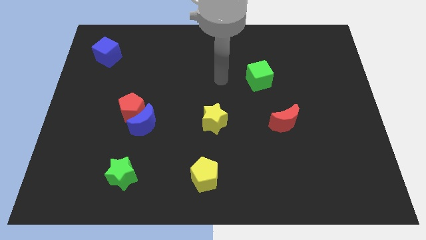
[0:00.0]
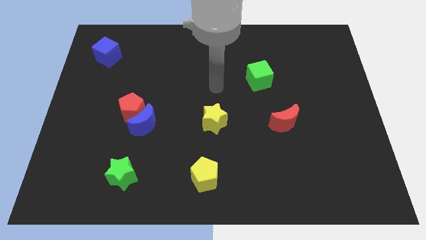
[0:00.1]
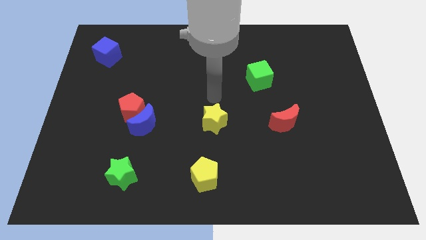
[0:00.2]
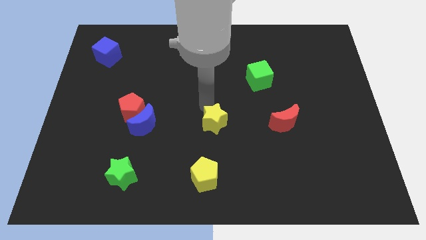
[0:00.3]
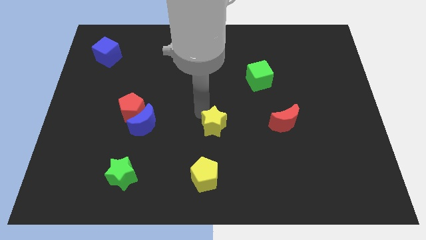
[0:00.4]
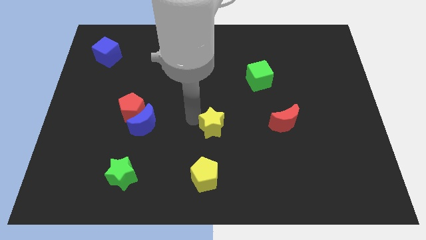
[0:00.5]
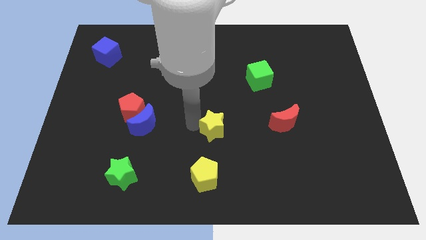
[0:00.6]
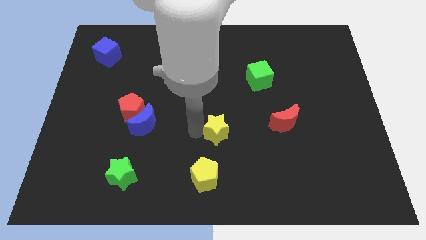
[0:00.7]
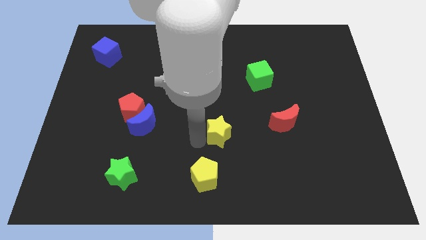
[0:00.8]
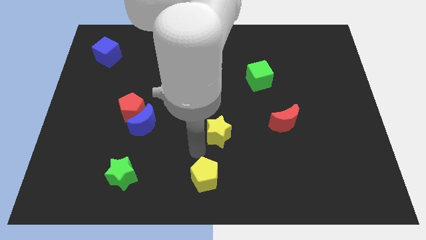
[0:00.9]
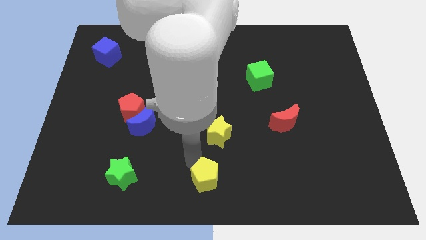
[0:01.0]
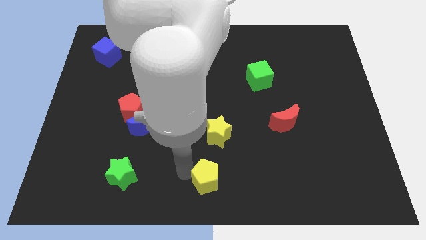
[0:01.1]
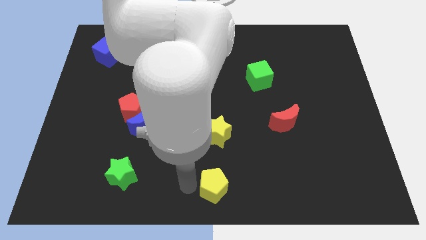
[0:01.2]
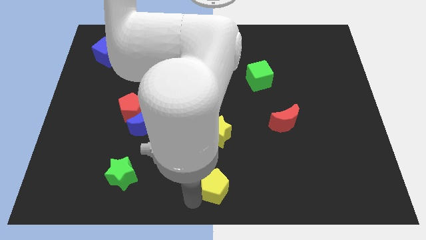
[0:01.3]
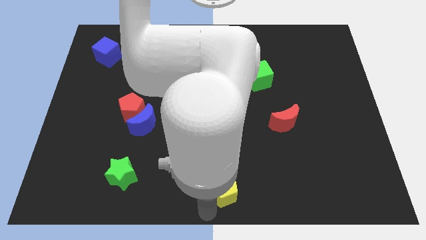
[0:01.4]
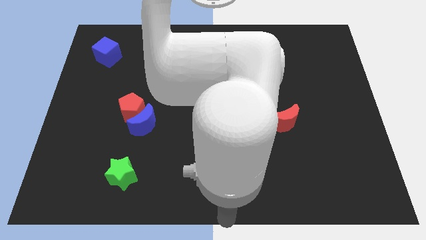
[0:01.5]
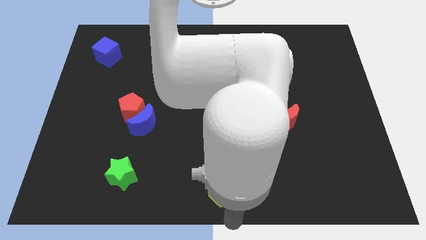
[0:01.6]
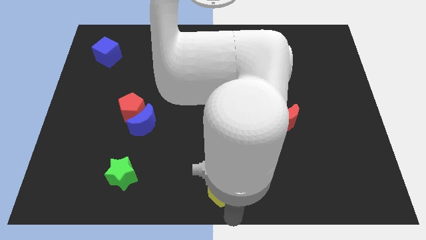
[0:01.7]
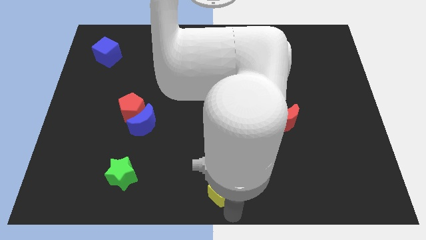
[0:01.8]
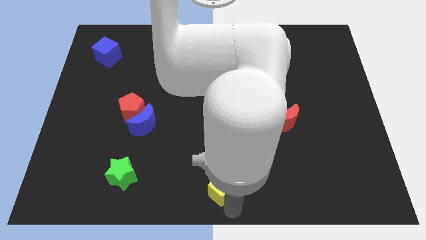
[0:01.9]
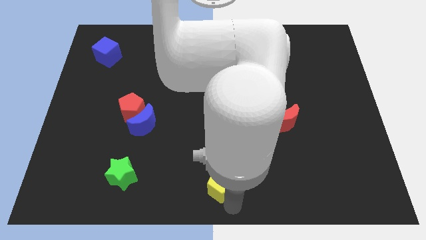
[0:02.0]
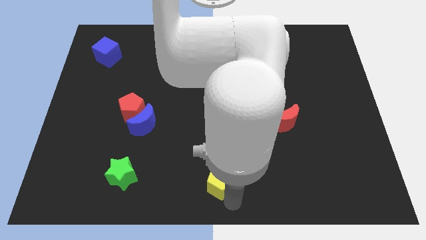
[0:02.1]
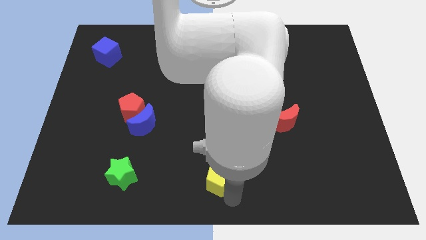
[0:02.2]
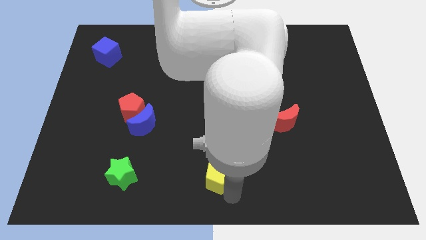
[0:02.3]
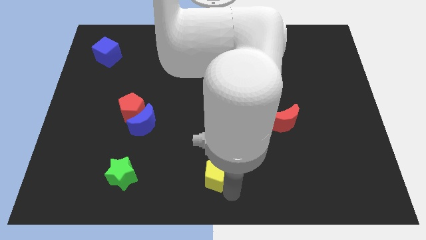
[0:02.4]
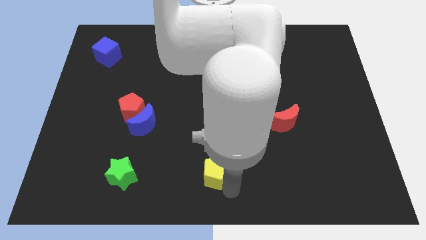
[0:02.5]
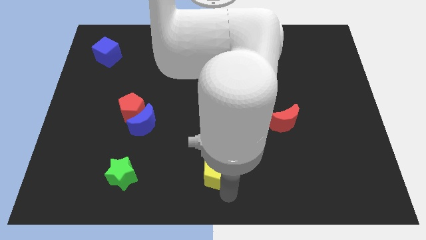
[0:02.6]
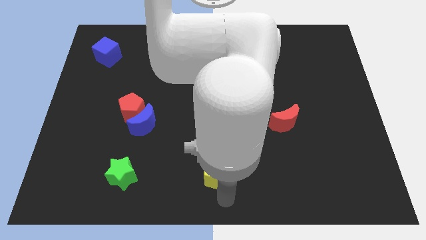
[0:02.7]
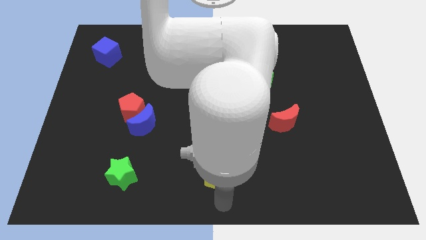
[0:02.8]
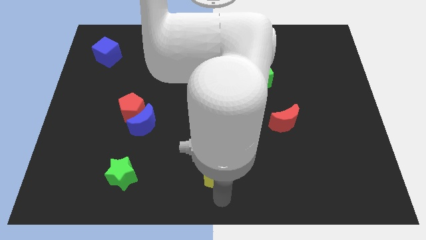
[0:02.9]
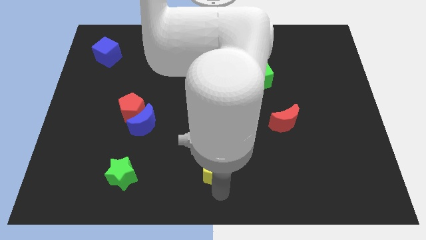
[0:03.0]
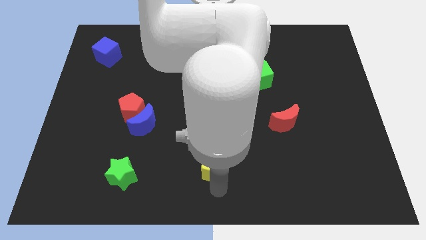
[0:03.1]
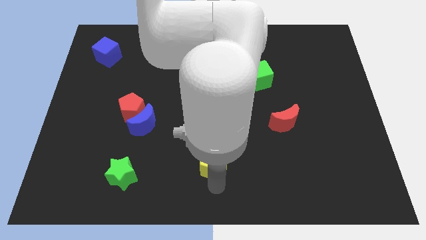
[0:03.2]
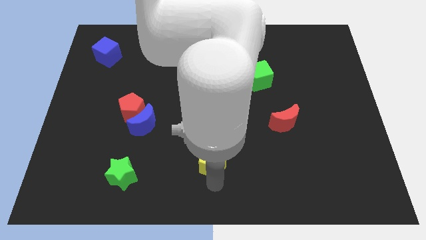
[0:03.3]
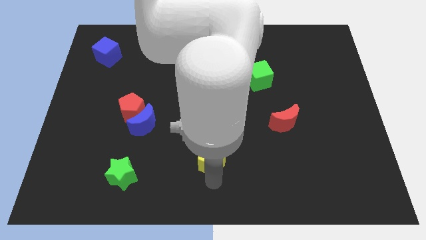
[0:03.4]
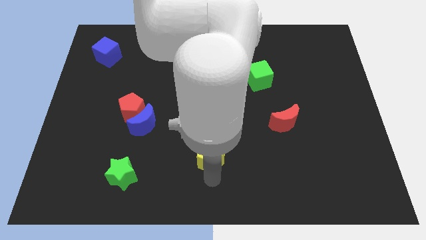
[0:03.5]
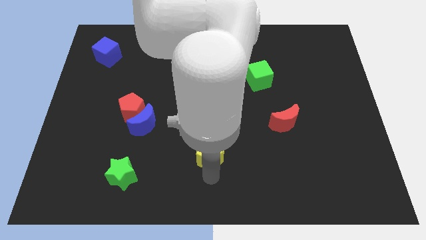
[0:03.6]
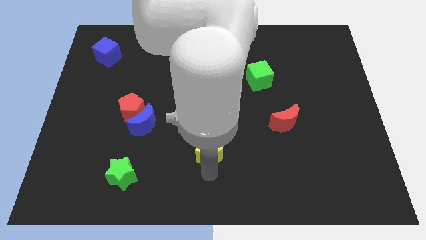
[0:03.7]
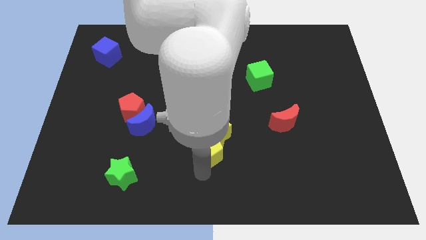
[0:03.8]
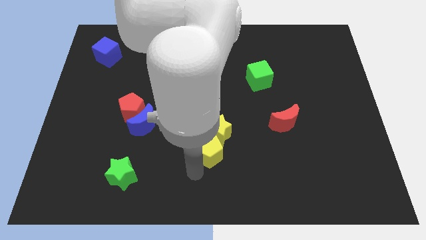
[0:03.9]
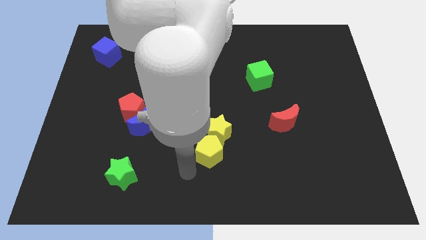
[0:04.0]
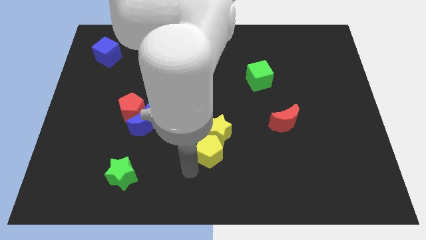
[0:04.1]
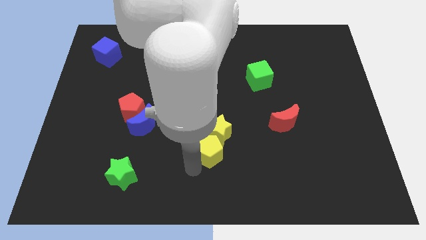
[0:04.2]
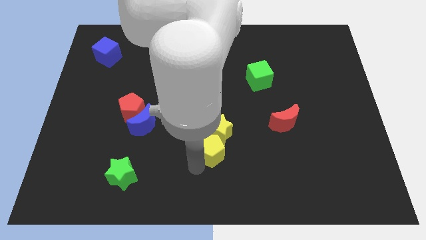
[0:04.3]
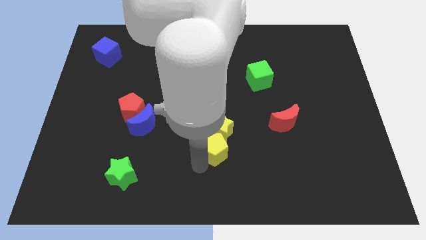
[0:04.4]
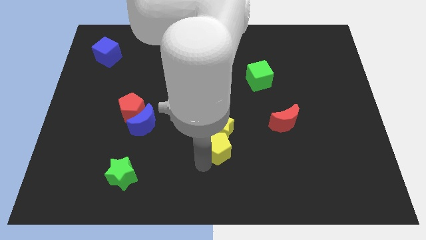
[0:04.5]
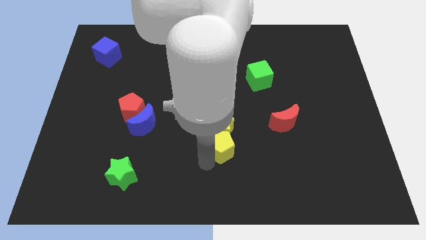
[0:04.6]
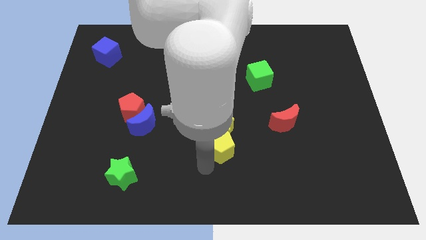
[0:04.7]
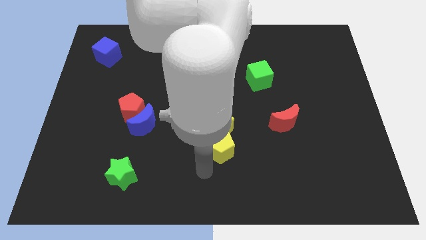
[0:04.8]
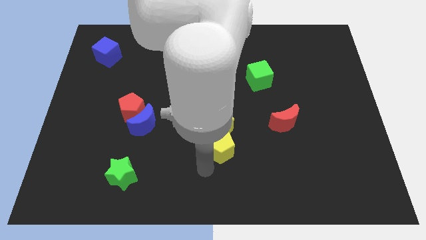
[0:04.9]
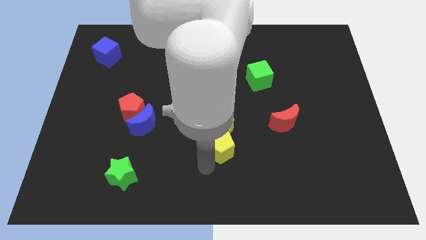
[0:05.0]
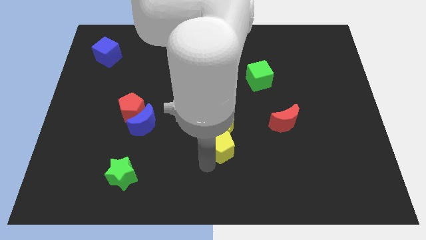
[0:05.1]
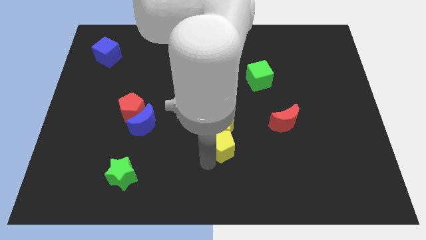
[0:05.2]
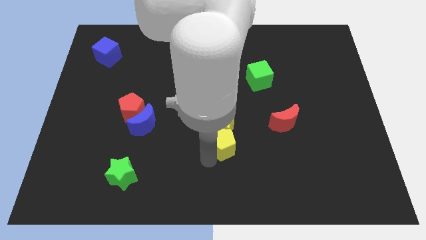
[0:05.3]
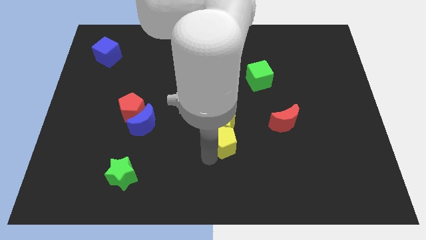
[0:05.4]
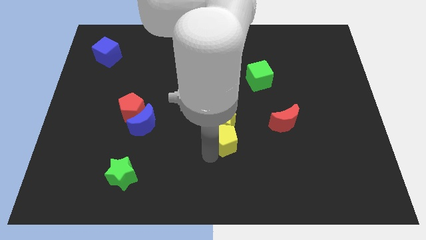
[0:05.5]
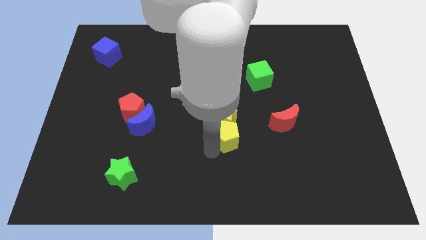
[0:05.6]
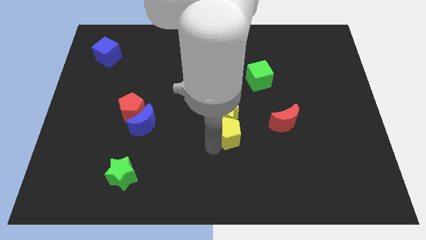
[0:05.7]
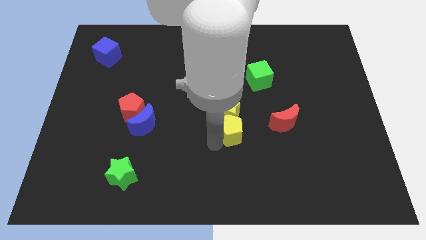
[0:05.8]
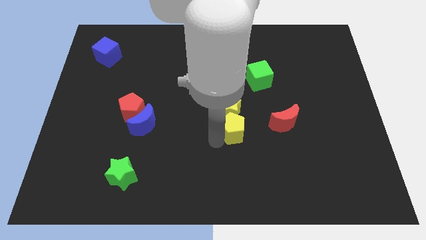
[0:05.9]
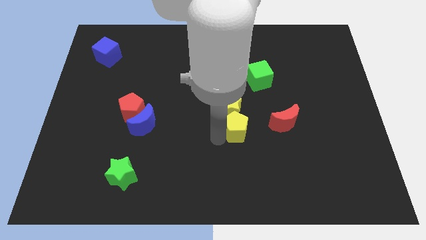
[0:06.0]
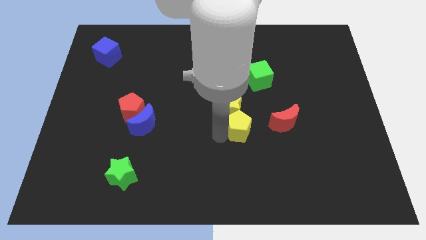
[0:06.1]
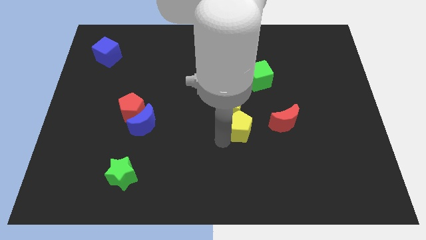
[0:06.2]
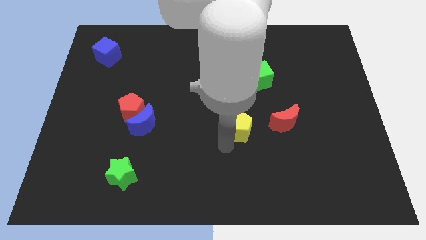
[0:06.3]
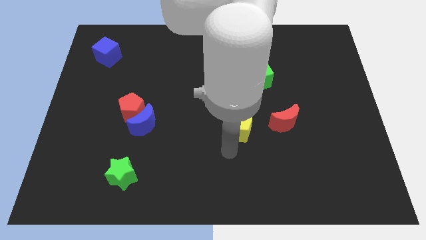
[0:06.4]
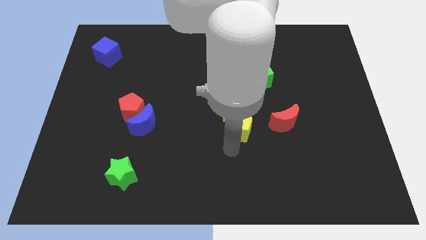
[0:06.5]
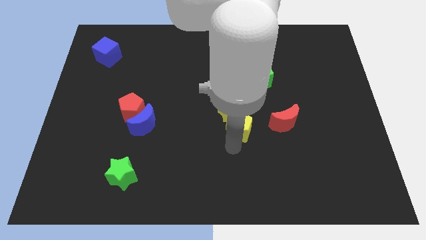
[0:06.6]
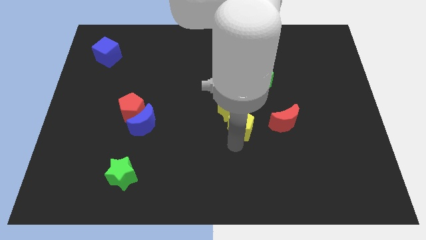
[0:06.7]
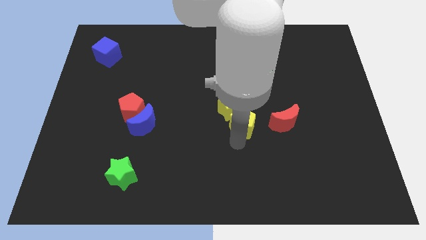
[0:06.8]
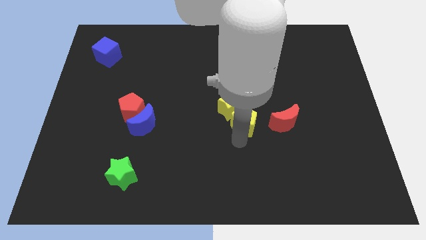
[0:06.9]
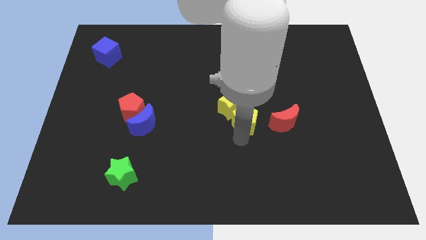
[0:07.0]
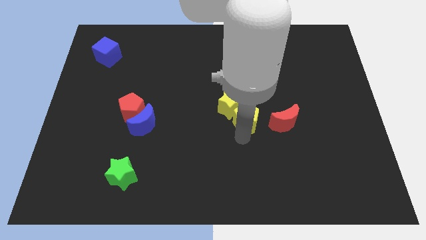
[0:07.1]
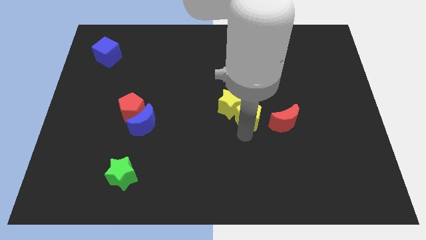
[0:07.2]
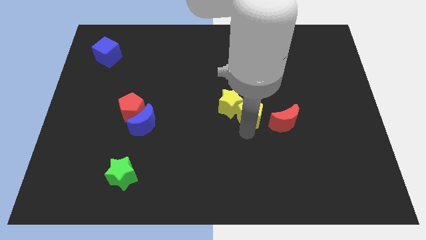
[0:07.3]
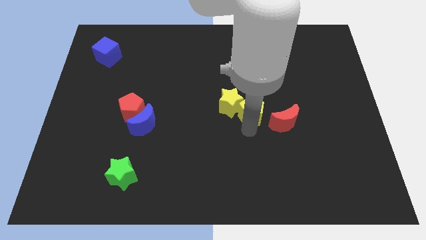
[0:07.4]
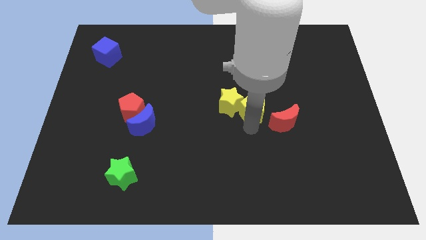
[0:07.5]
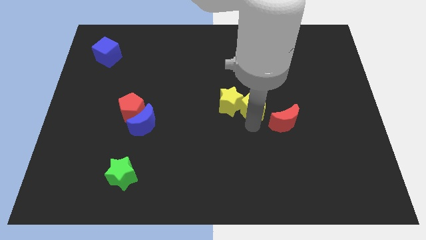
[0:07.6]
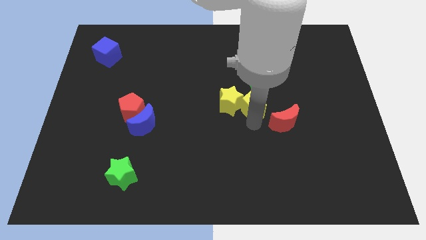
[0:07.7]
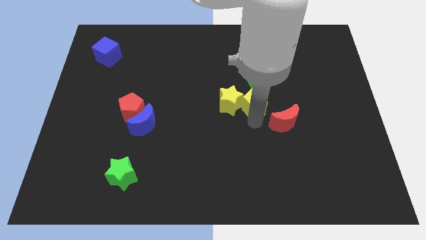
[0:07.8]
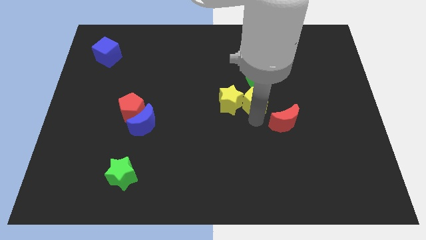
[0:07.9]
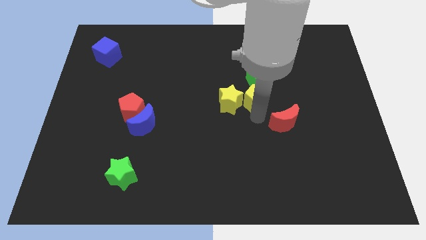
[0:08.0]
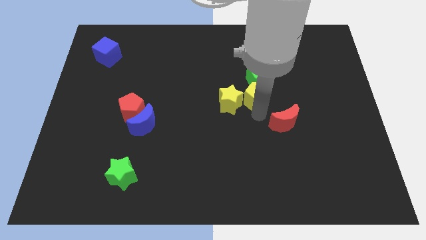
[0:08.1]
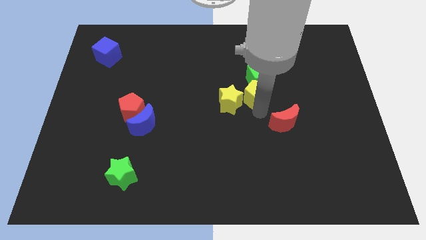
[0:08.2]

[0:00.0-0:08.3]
move the yellow pentagon towards the green cube
